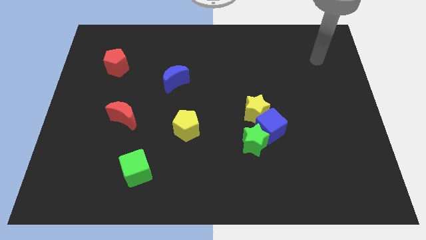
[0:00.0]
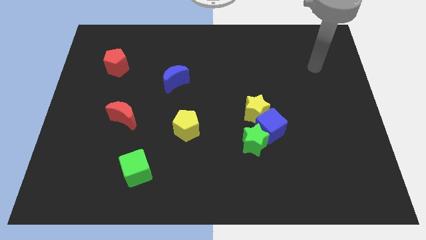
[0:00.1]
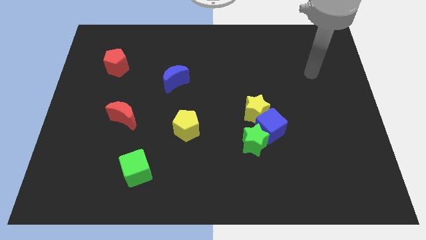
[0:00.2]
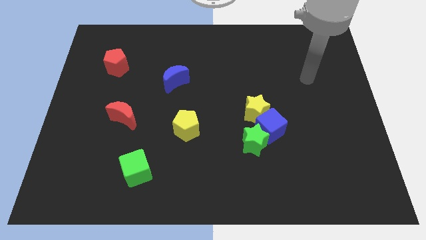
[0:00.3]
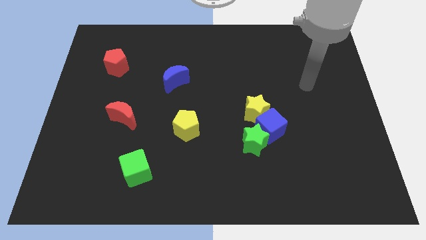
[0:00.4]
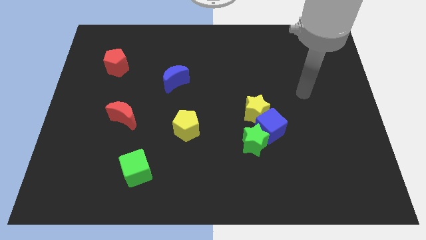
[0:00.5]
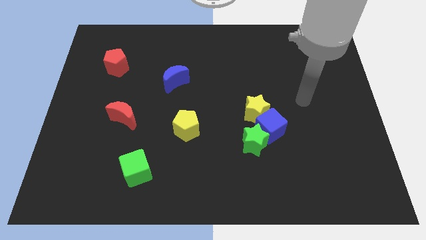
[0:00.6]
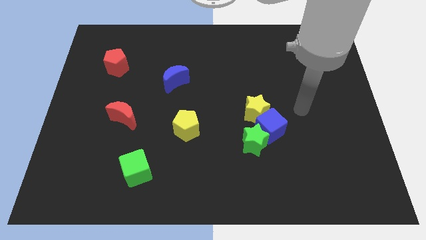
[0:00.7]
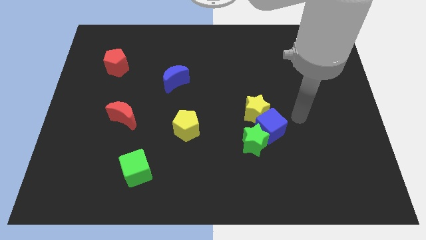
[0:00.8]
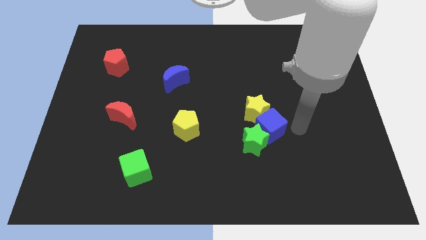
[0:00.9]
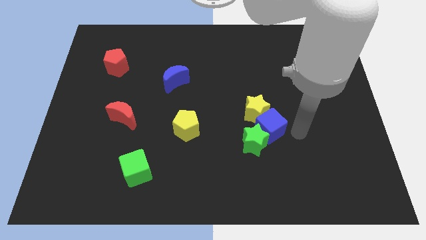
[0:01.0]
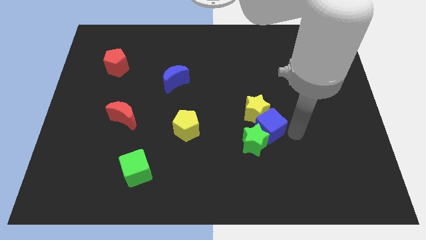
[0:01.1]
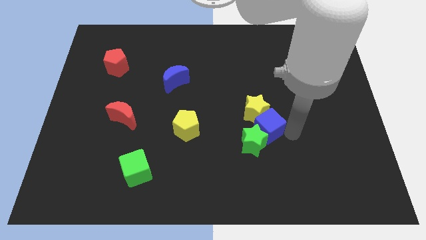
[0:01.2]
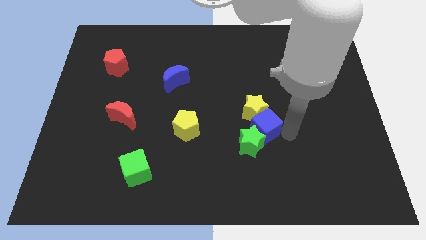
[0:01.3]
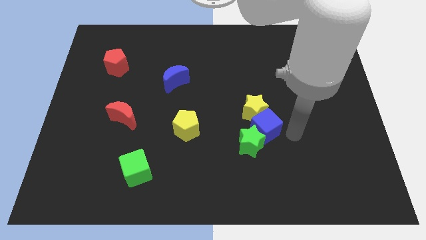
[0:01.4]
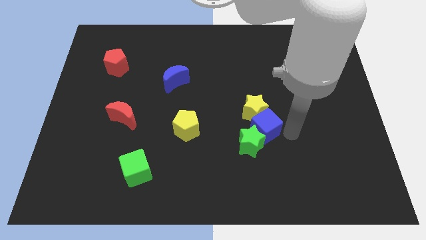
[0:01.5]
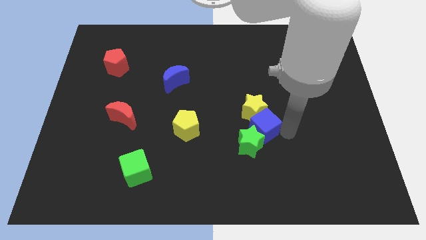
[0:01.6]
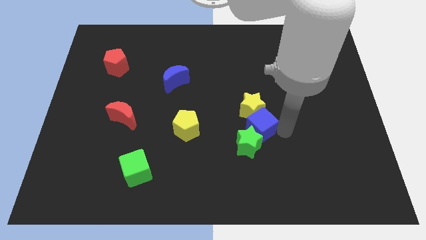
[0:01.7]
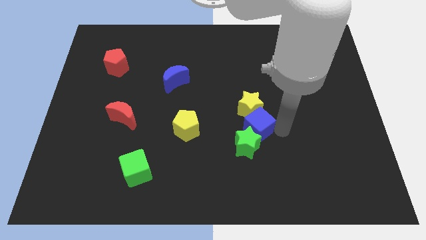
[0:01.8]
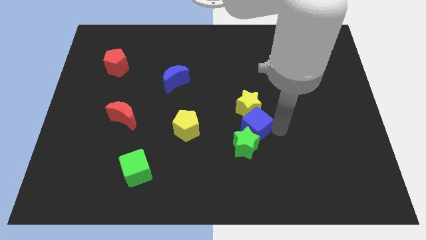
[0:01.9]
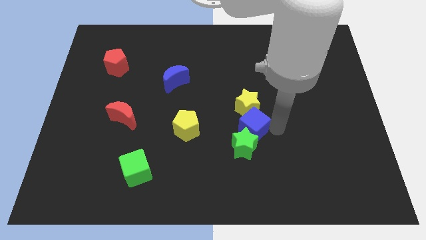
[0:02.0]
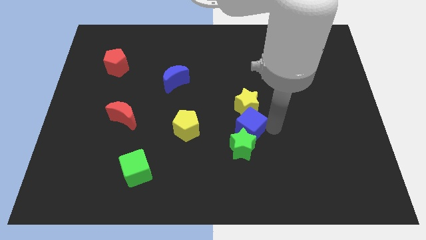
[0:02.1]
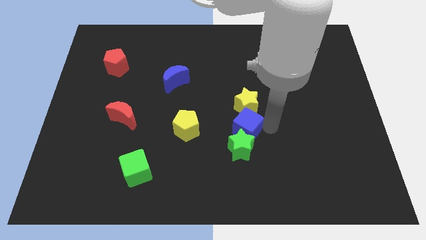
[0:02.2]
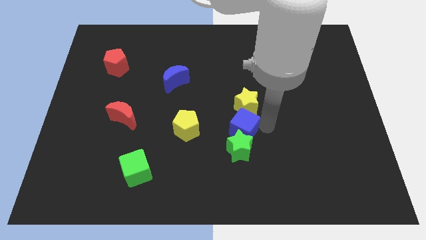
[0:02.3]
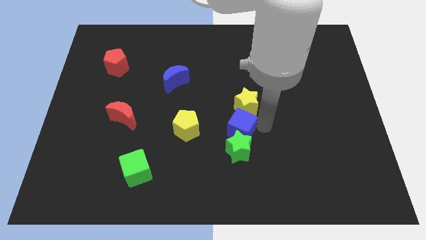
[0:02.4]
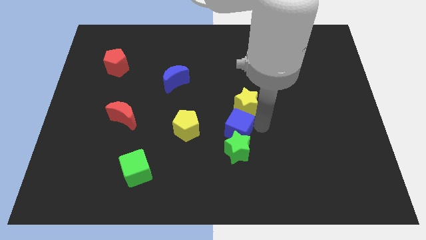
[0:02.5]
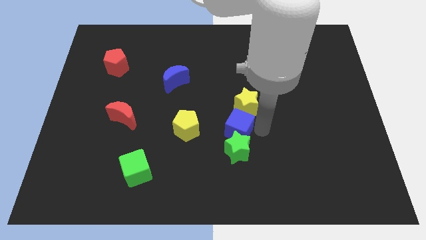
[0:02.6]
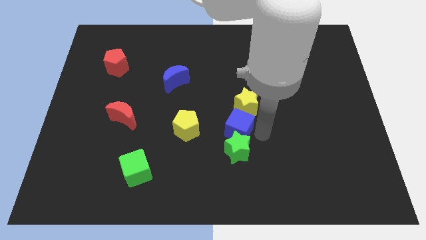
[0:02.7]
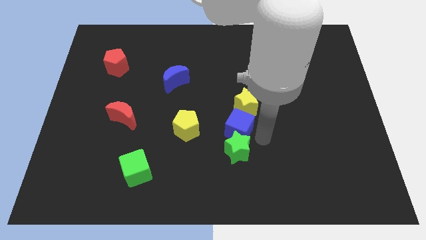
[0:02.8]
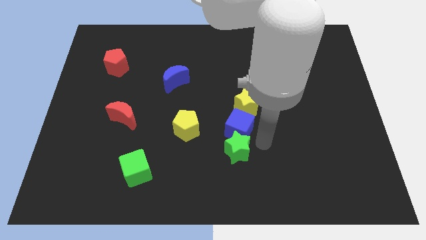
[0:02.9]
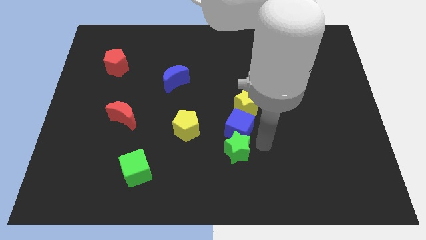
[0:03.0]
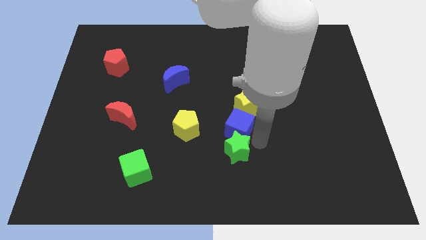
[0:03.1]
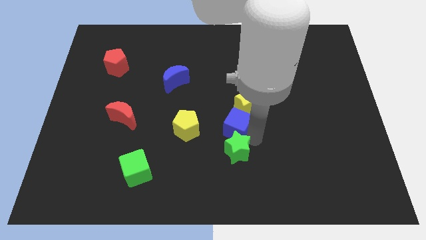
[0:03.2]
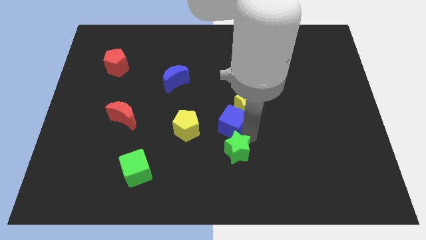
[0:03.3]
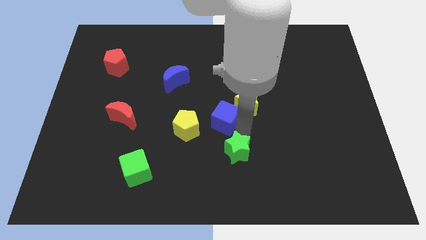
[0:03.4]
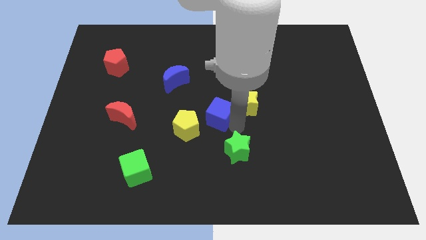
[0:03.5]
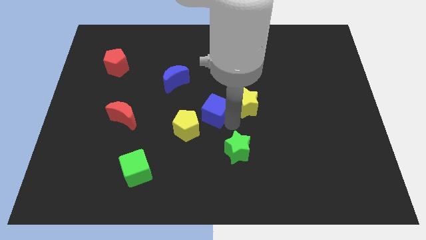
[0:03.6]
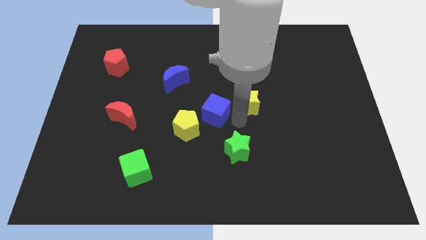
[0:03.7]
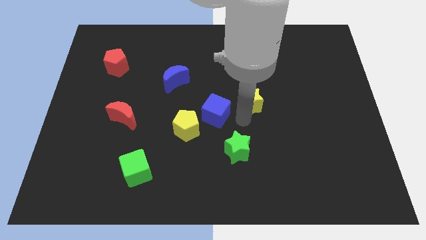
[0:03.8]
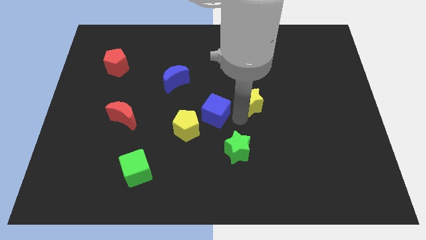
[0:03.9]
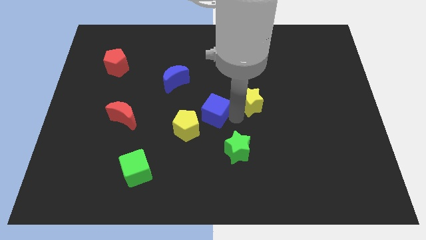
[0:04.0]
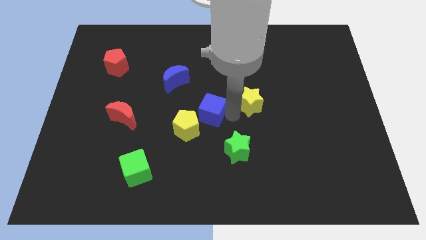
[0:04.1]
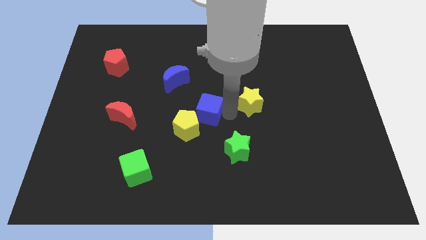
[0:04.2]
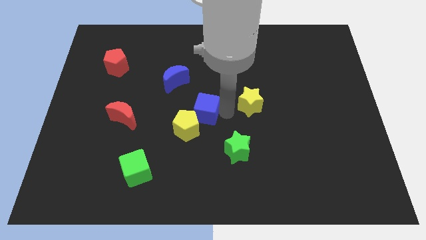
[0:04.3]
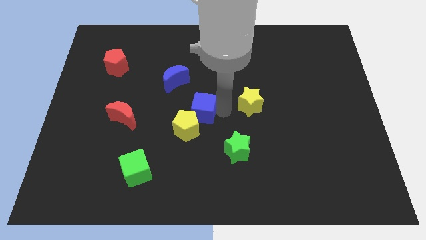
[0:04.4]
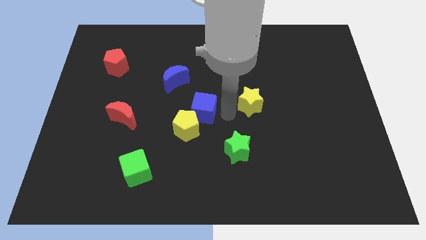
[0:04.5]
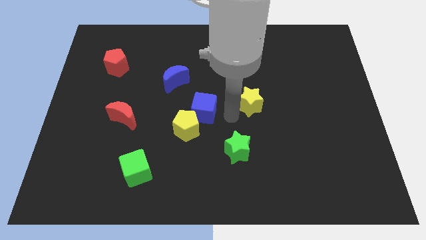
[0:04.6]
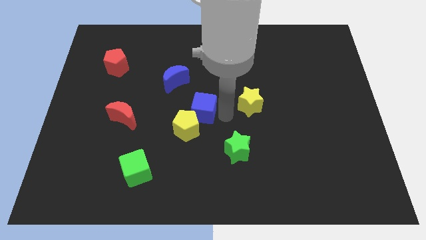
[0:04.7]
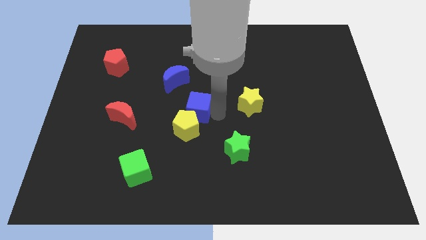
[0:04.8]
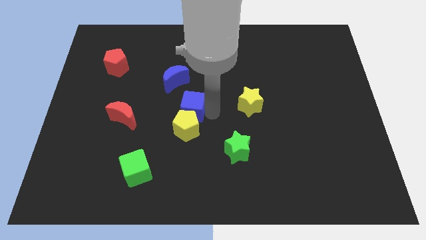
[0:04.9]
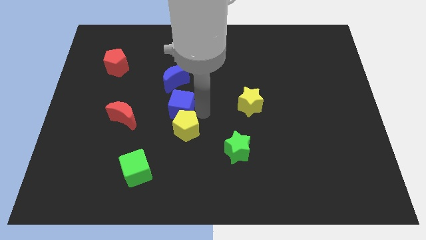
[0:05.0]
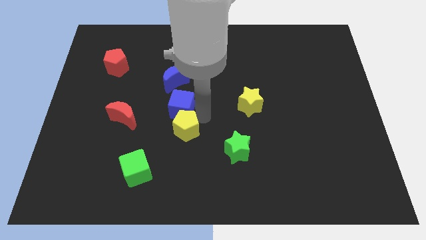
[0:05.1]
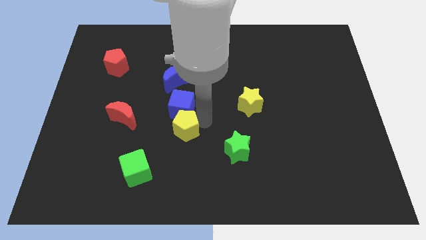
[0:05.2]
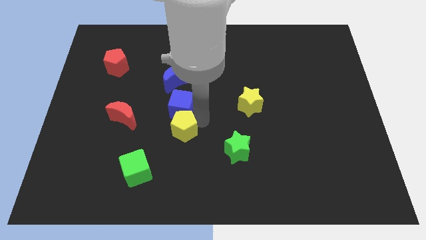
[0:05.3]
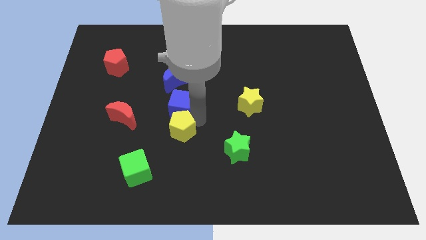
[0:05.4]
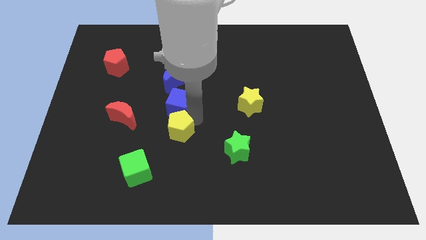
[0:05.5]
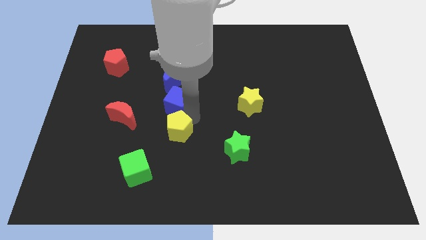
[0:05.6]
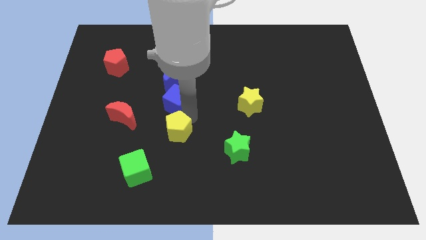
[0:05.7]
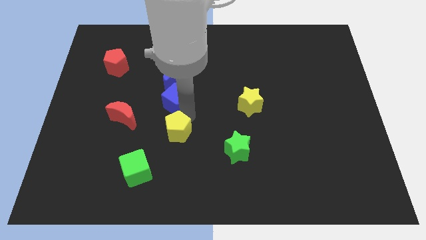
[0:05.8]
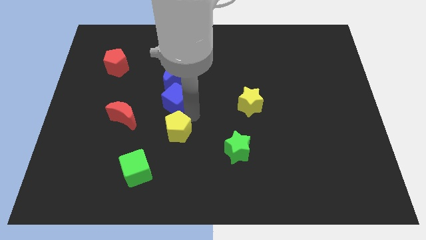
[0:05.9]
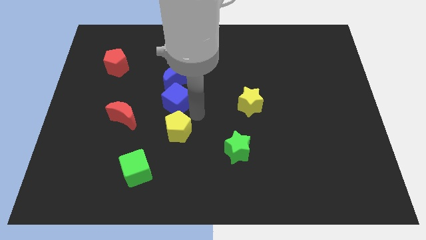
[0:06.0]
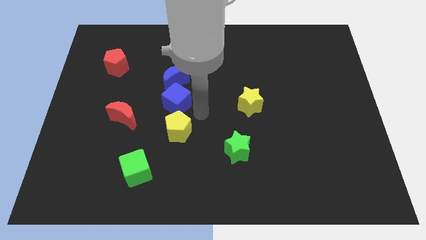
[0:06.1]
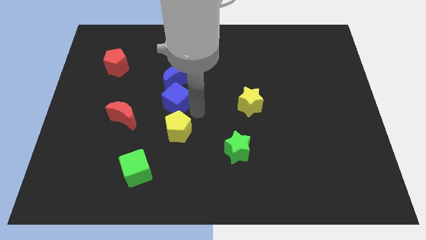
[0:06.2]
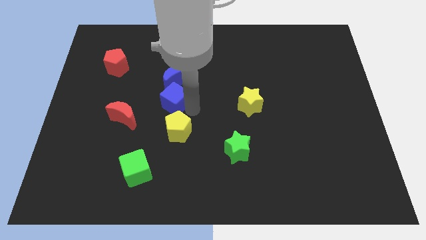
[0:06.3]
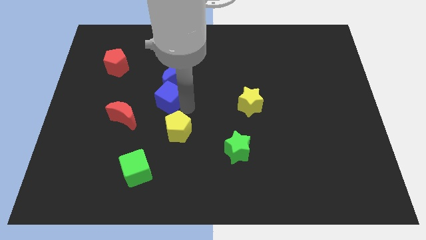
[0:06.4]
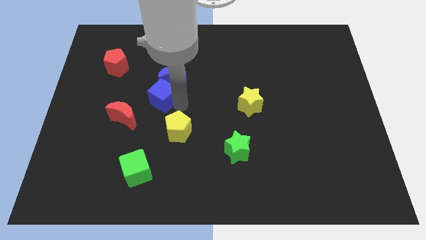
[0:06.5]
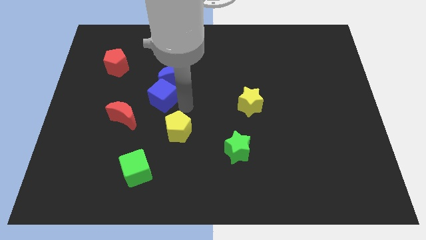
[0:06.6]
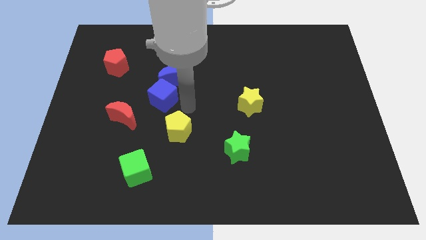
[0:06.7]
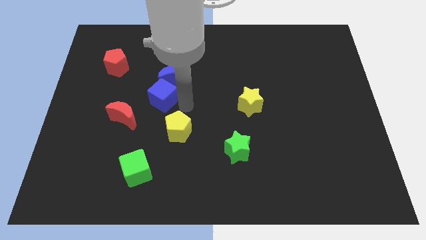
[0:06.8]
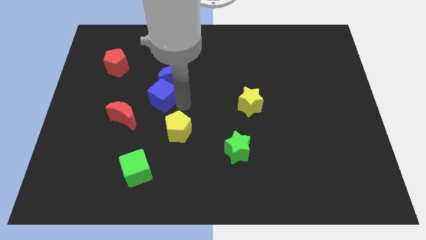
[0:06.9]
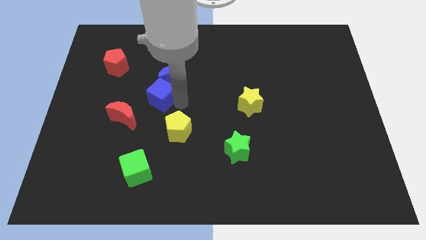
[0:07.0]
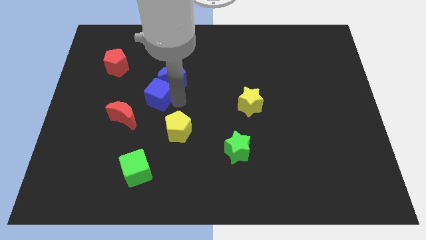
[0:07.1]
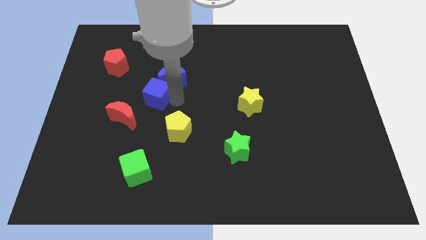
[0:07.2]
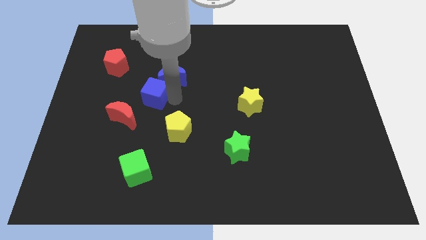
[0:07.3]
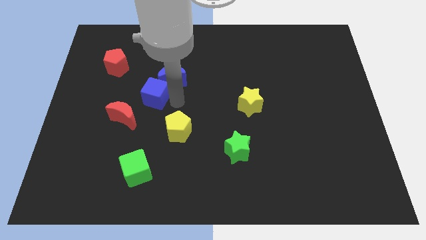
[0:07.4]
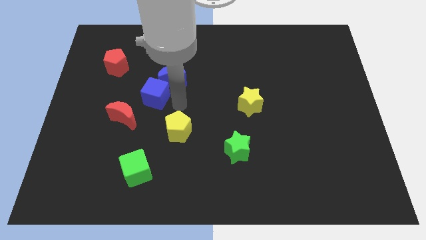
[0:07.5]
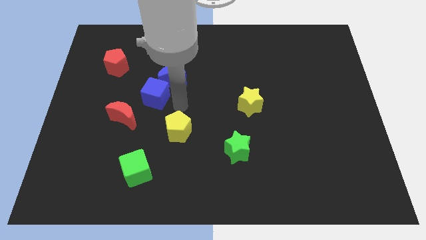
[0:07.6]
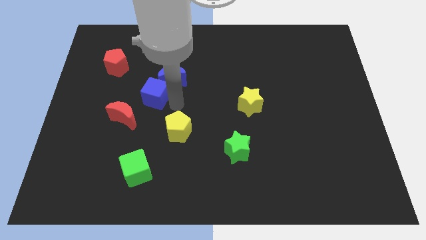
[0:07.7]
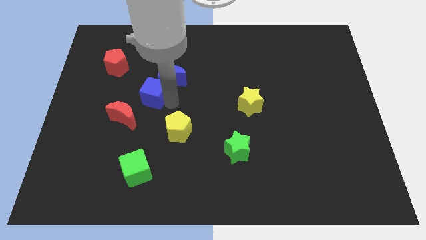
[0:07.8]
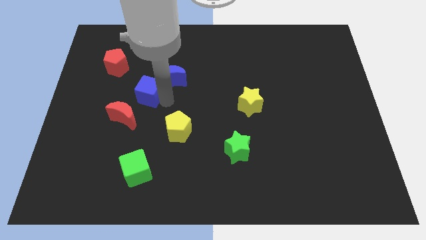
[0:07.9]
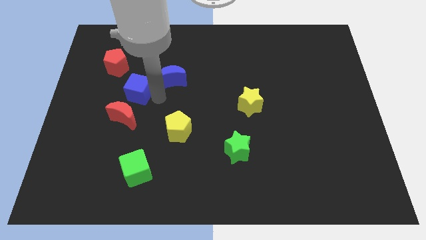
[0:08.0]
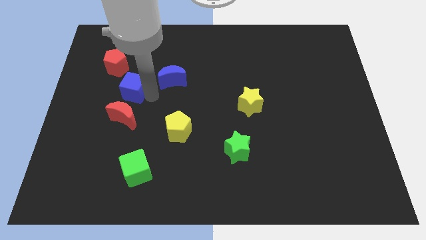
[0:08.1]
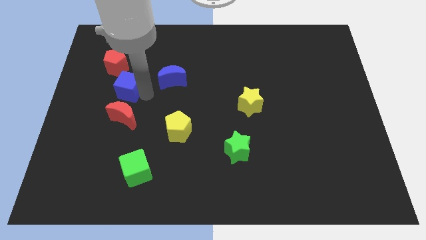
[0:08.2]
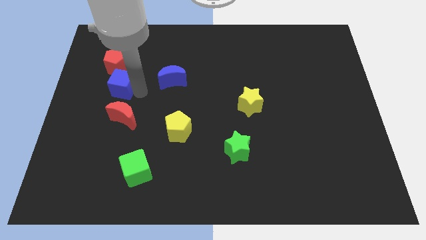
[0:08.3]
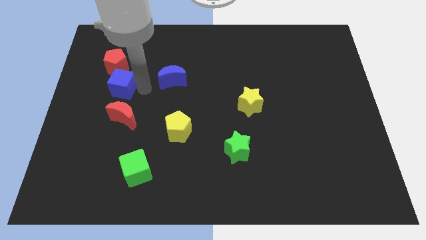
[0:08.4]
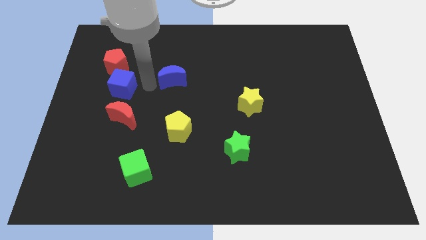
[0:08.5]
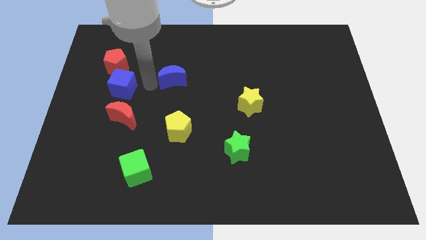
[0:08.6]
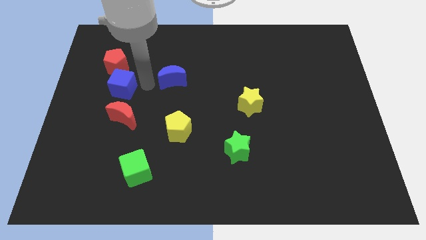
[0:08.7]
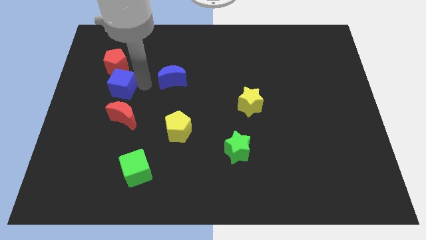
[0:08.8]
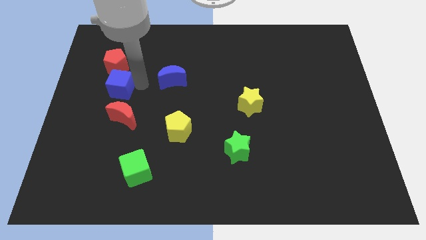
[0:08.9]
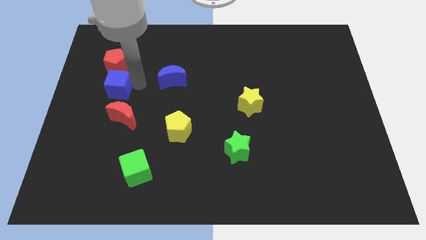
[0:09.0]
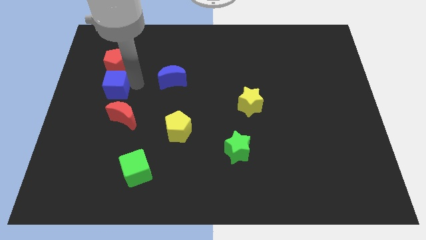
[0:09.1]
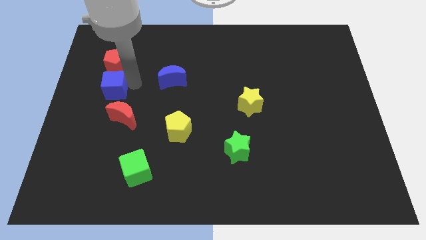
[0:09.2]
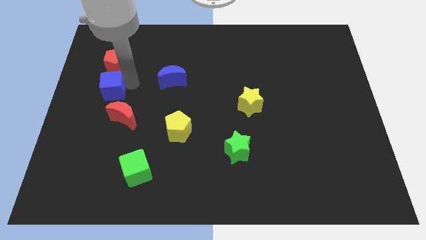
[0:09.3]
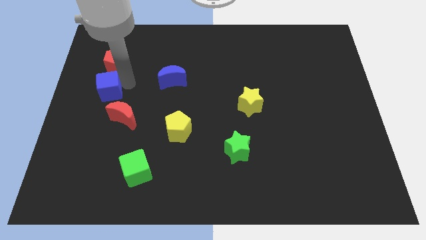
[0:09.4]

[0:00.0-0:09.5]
push the blue cube to the center left
